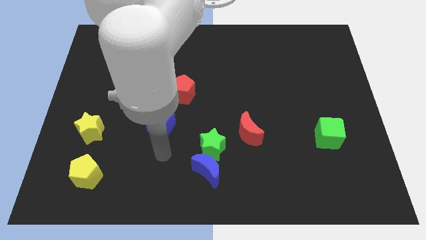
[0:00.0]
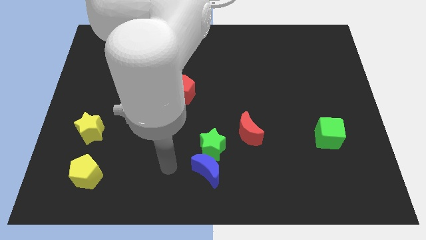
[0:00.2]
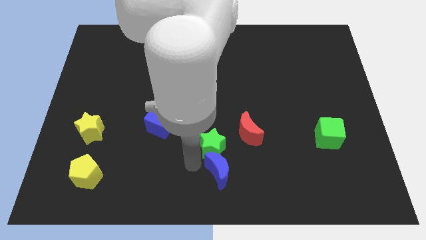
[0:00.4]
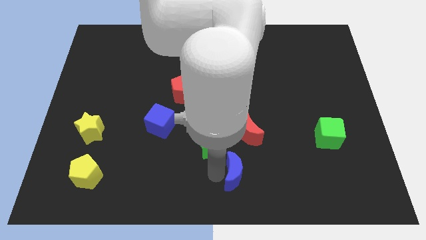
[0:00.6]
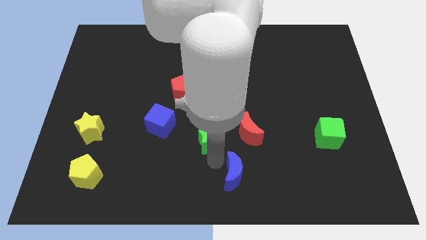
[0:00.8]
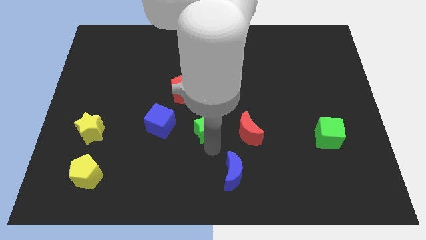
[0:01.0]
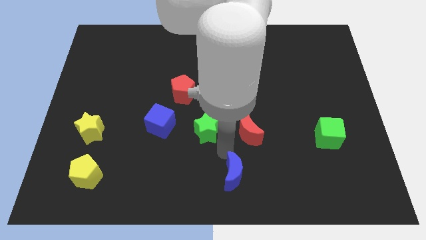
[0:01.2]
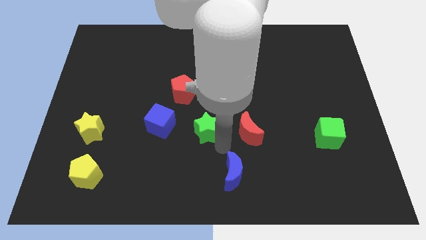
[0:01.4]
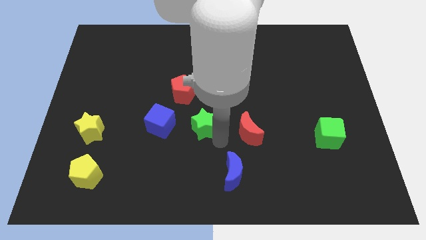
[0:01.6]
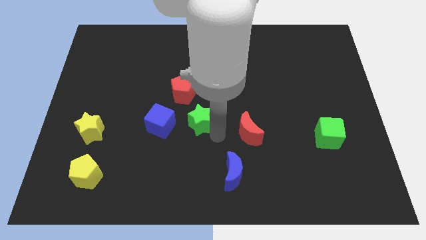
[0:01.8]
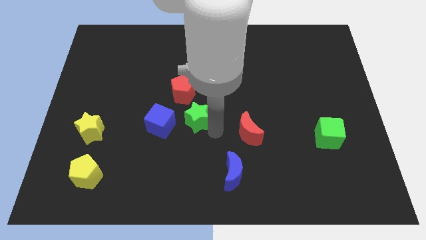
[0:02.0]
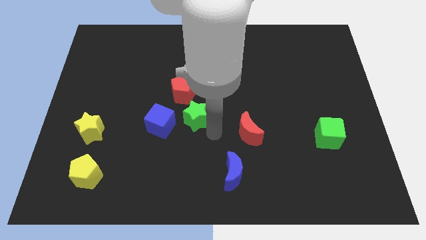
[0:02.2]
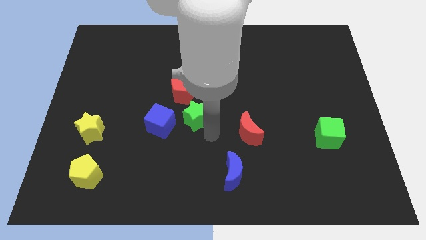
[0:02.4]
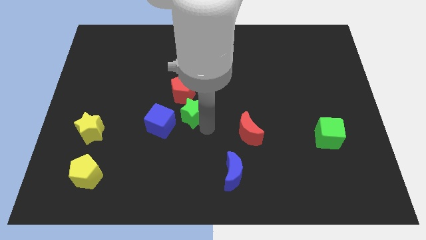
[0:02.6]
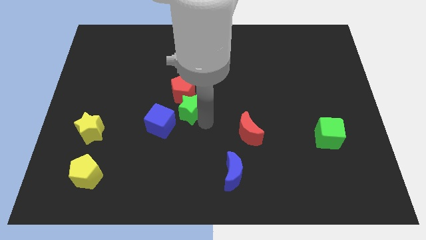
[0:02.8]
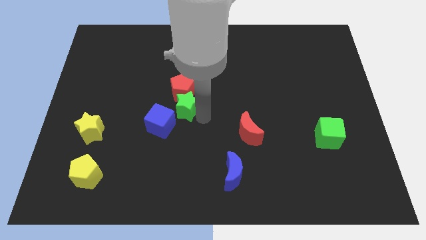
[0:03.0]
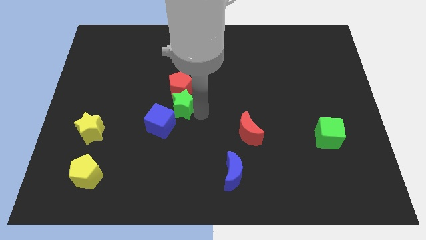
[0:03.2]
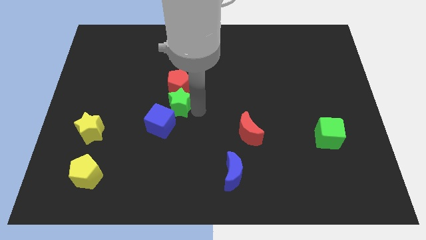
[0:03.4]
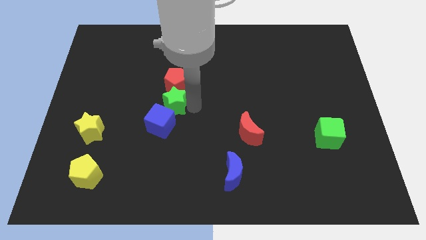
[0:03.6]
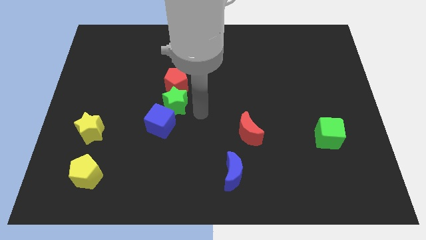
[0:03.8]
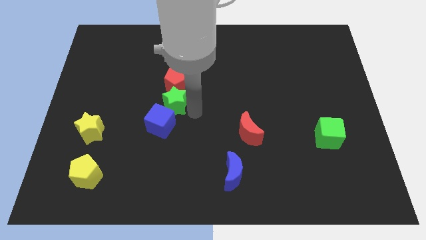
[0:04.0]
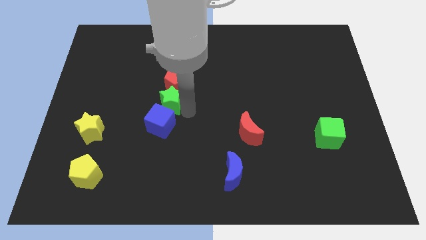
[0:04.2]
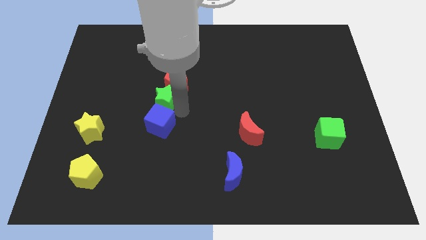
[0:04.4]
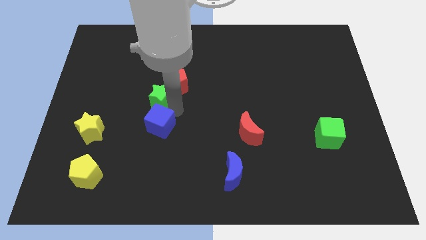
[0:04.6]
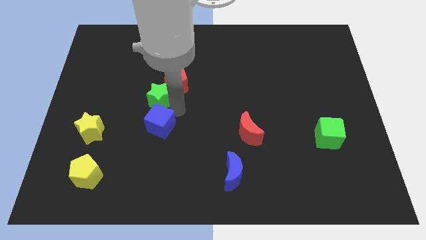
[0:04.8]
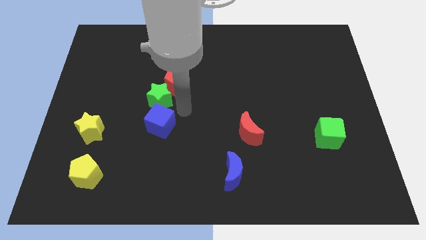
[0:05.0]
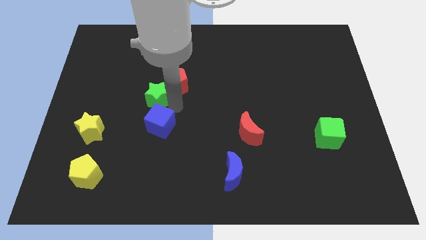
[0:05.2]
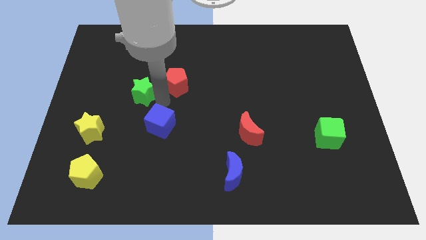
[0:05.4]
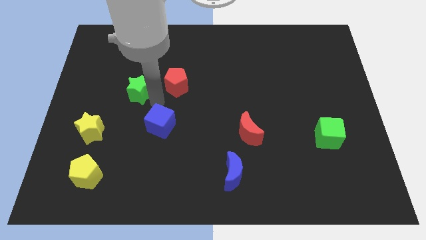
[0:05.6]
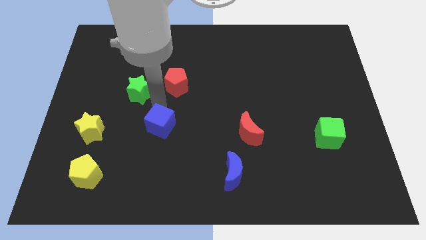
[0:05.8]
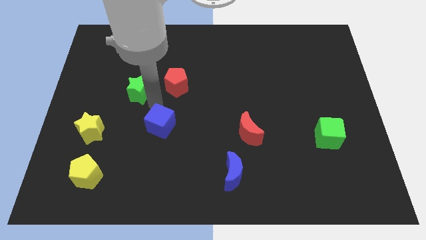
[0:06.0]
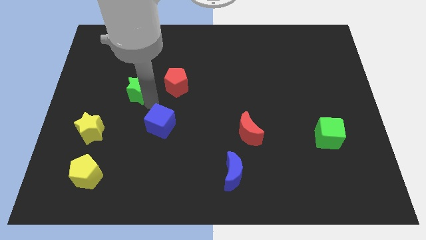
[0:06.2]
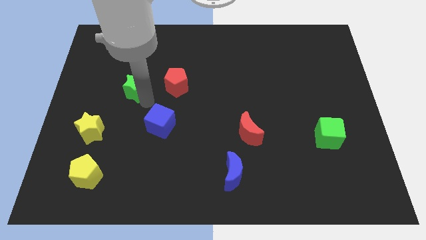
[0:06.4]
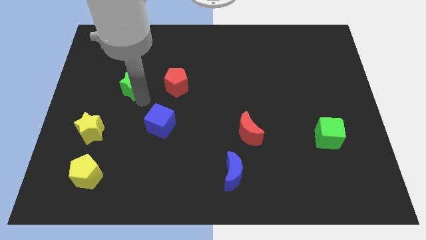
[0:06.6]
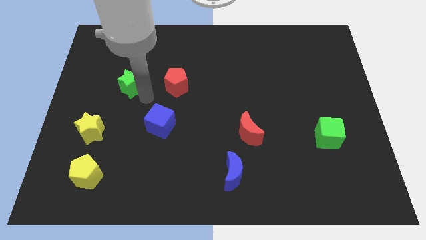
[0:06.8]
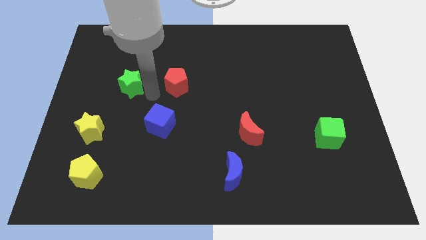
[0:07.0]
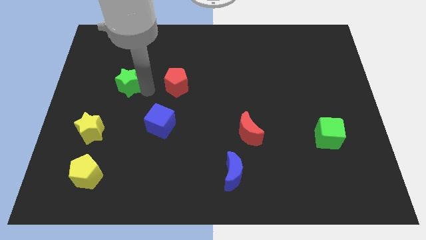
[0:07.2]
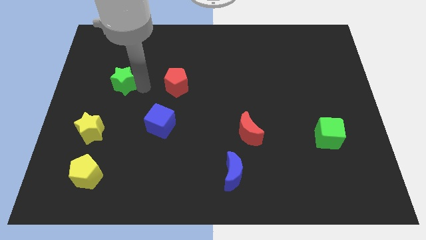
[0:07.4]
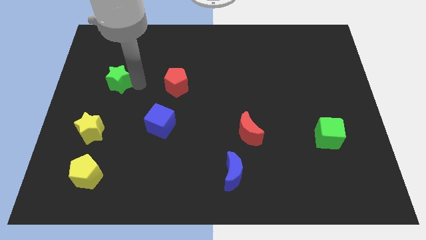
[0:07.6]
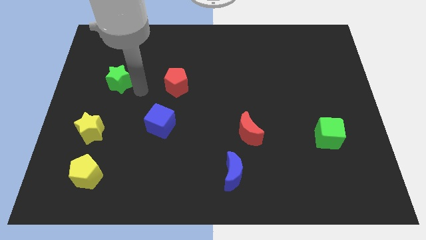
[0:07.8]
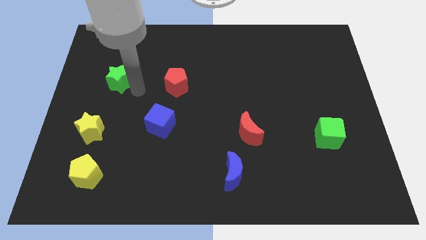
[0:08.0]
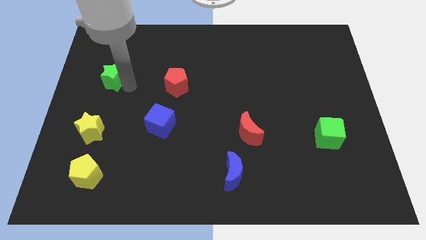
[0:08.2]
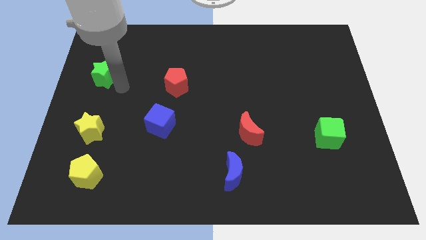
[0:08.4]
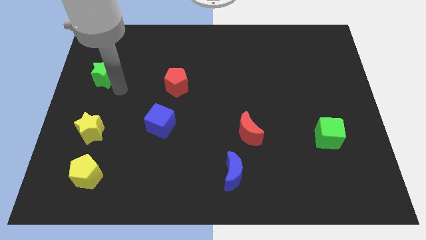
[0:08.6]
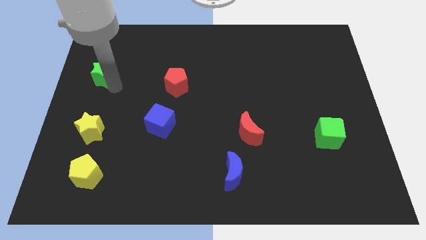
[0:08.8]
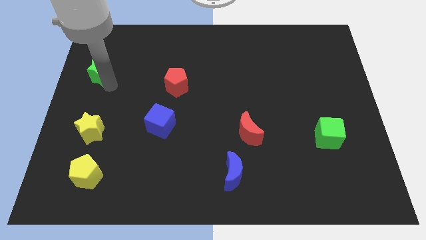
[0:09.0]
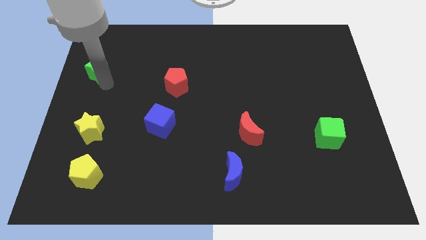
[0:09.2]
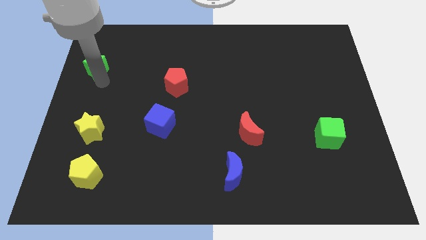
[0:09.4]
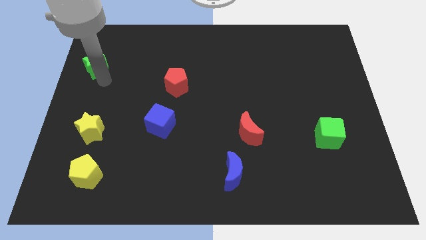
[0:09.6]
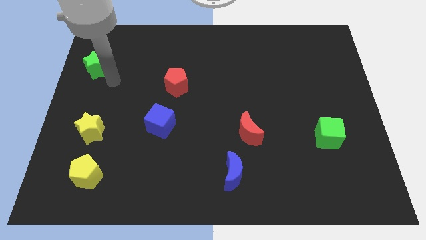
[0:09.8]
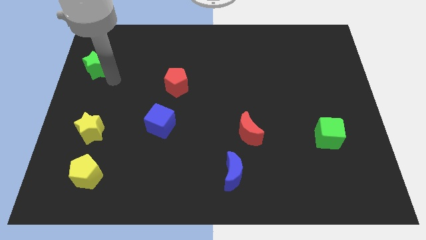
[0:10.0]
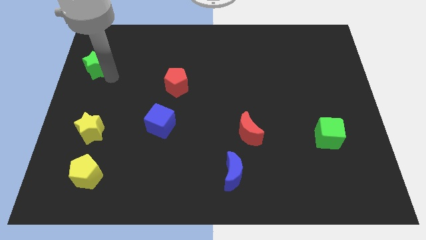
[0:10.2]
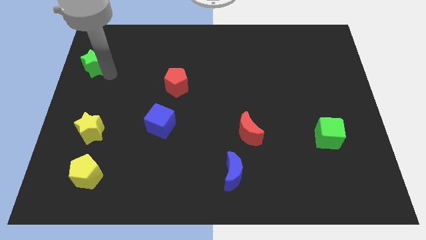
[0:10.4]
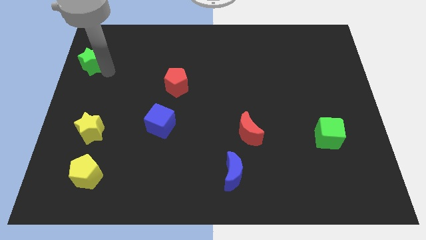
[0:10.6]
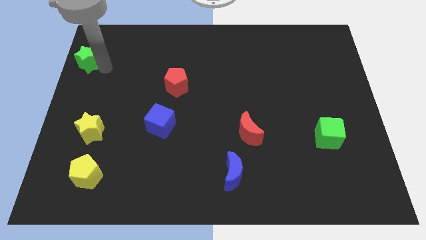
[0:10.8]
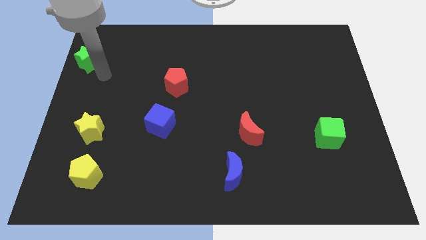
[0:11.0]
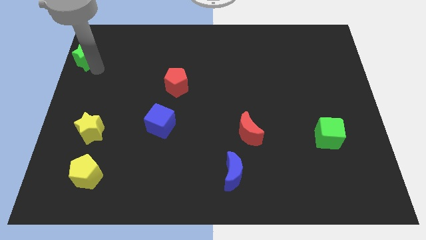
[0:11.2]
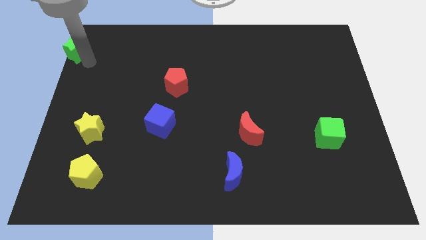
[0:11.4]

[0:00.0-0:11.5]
slide the green star to the top left of the board
